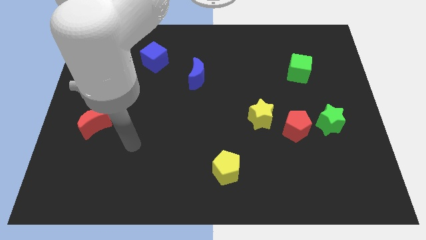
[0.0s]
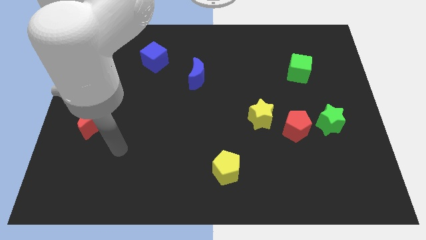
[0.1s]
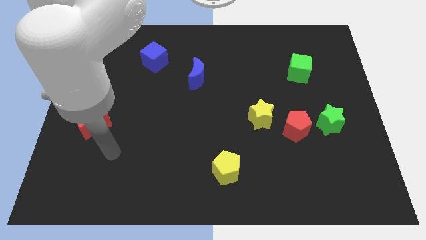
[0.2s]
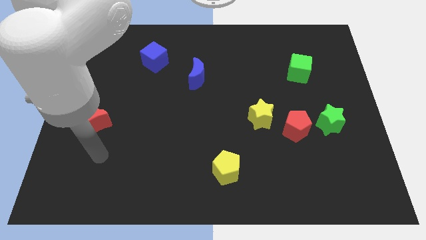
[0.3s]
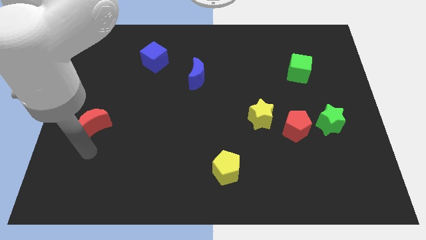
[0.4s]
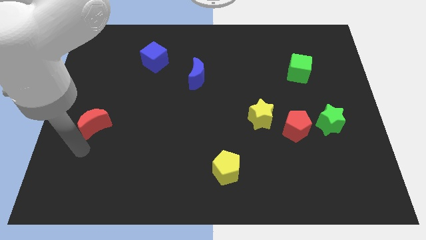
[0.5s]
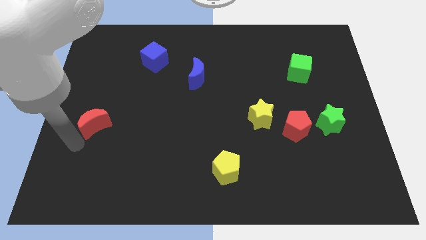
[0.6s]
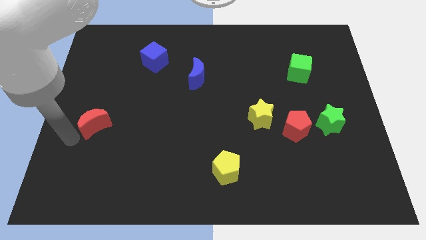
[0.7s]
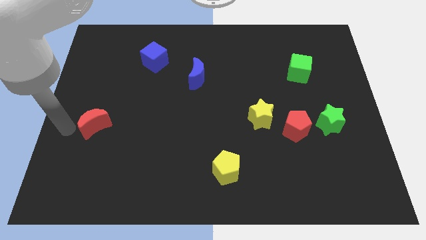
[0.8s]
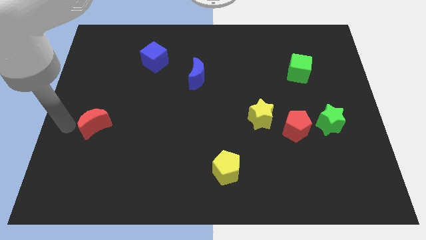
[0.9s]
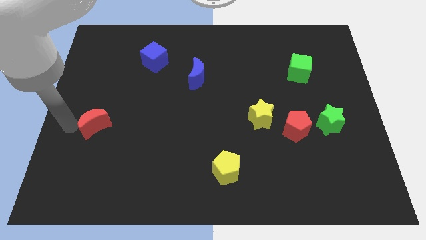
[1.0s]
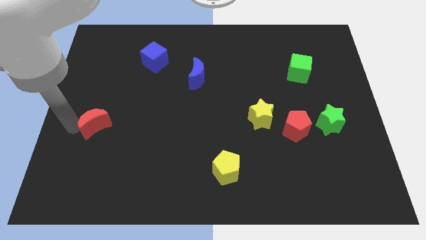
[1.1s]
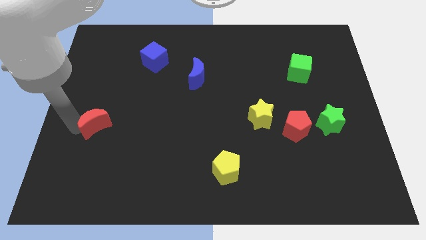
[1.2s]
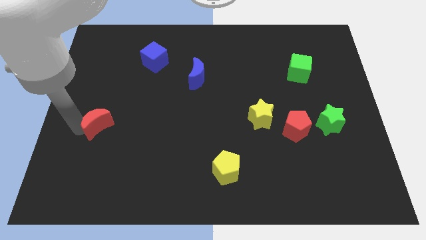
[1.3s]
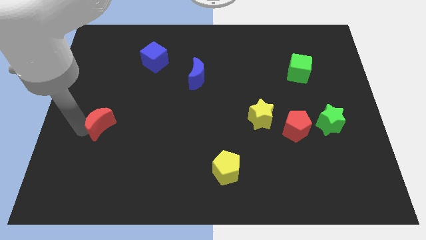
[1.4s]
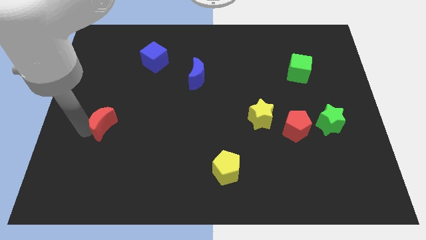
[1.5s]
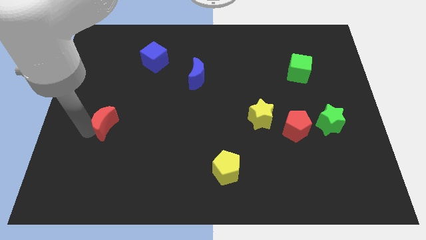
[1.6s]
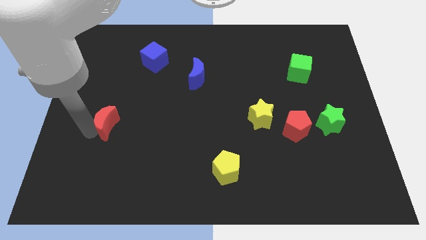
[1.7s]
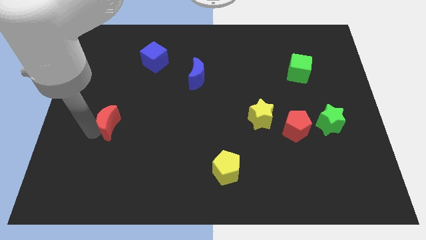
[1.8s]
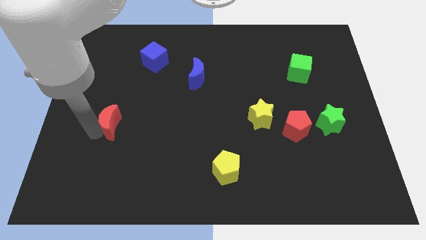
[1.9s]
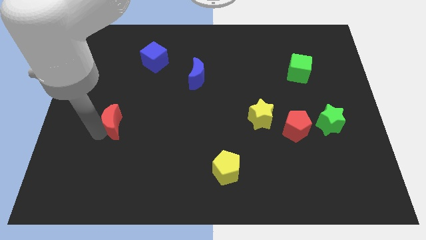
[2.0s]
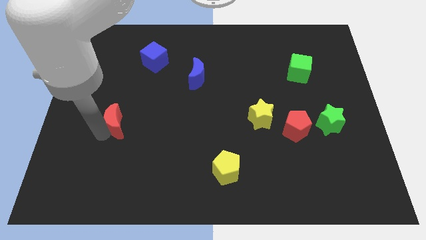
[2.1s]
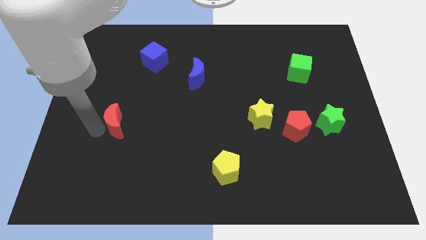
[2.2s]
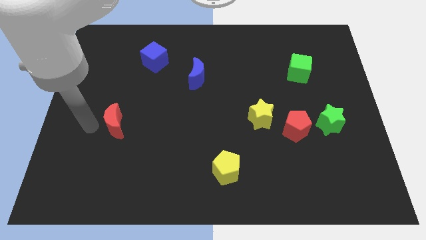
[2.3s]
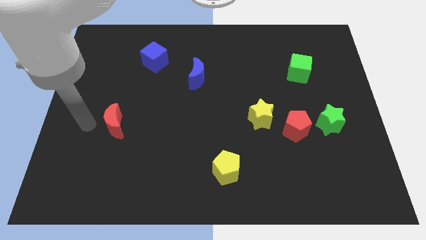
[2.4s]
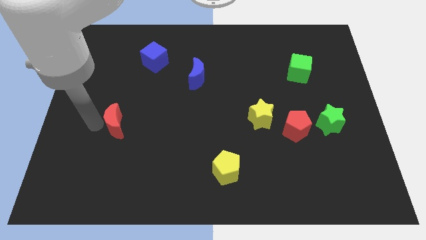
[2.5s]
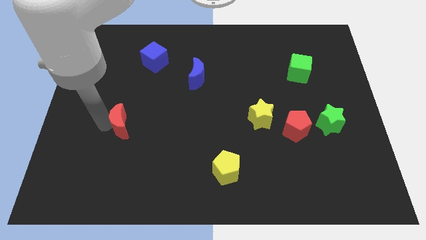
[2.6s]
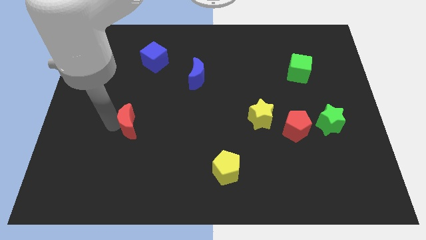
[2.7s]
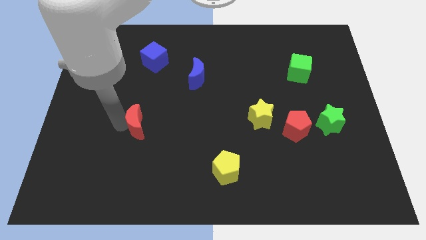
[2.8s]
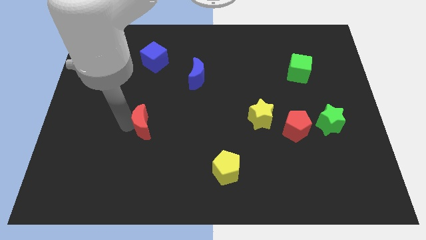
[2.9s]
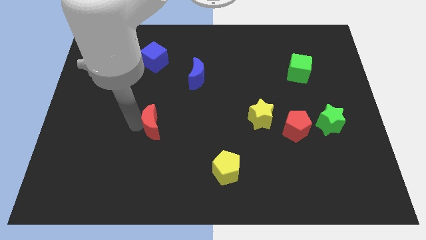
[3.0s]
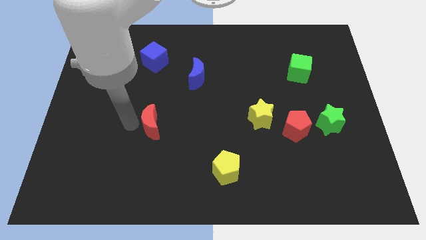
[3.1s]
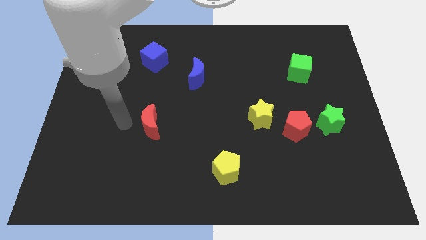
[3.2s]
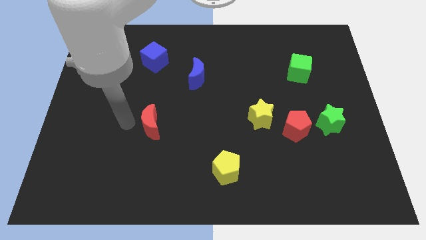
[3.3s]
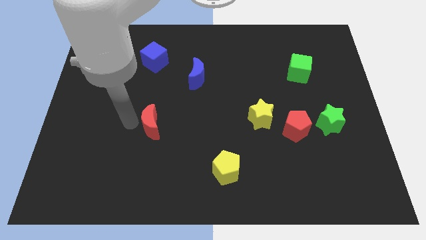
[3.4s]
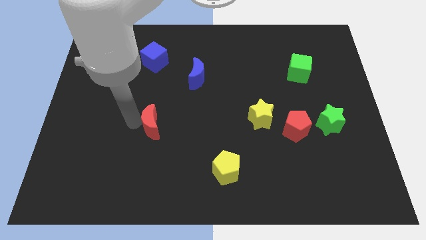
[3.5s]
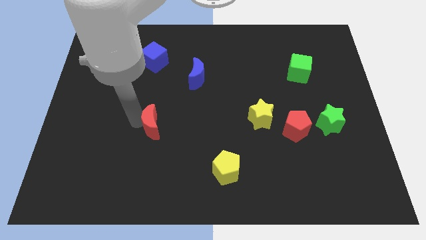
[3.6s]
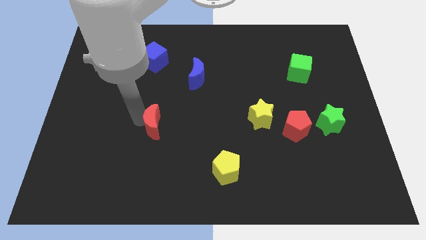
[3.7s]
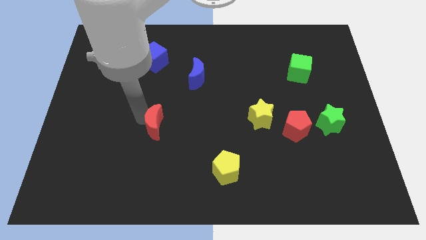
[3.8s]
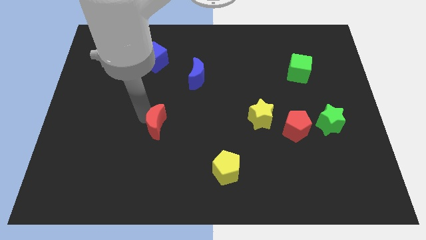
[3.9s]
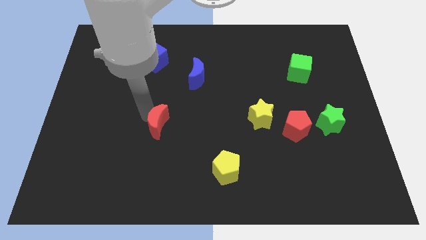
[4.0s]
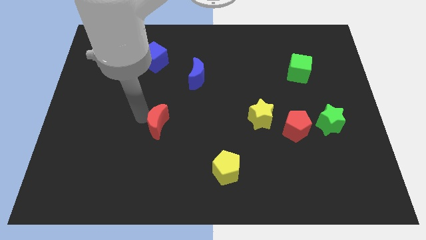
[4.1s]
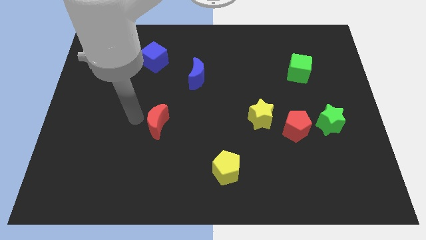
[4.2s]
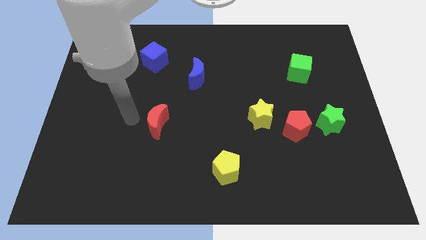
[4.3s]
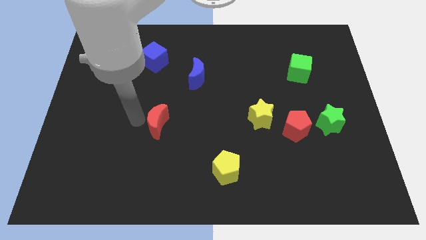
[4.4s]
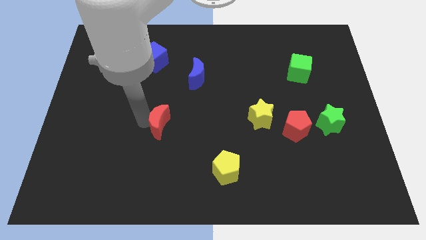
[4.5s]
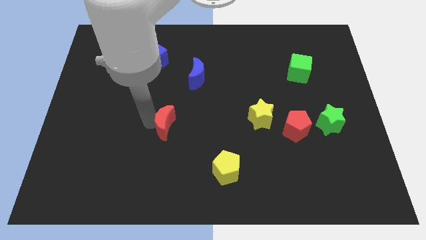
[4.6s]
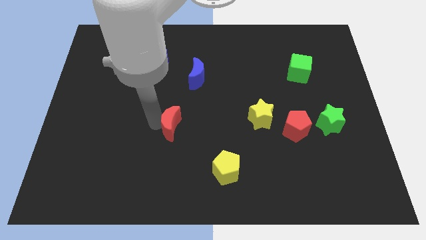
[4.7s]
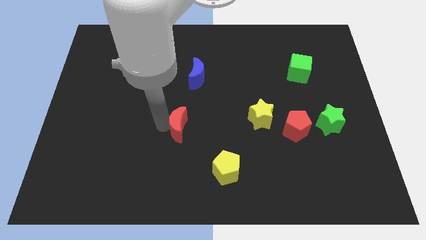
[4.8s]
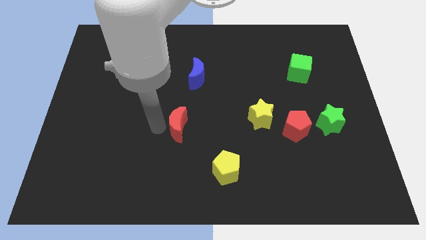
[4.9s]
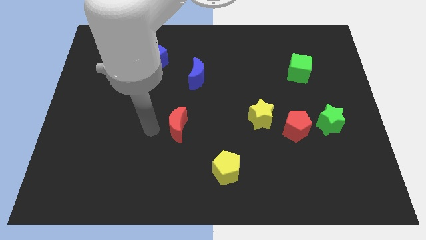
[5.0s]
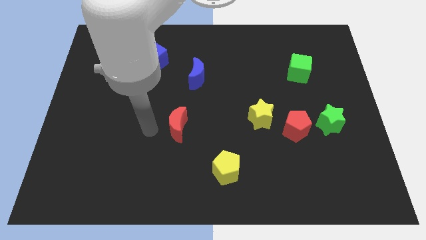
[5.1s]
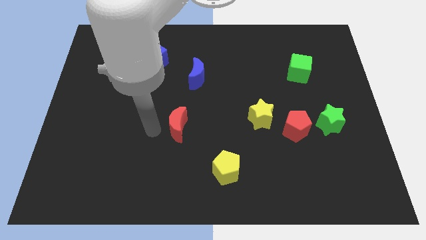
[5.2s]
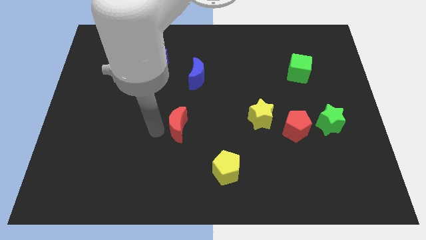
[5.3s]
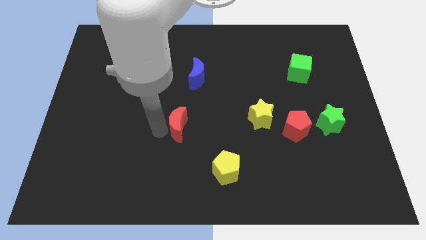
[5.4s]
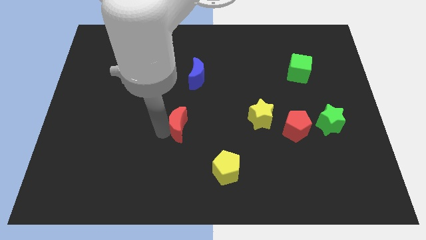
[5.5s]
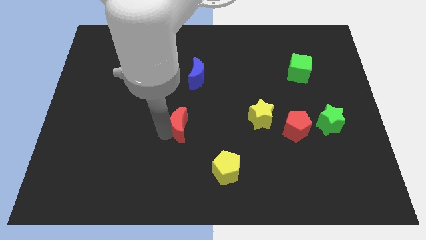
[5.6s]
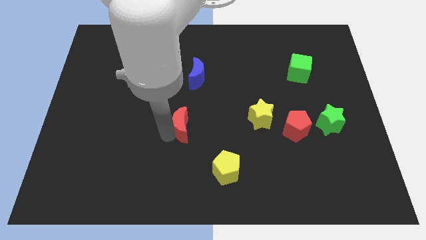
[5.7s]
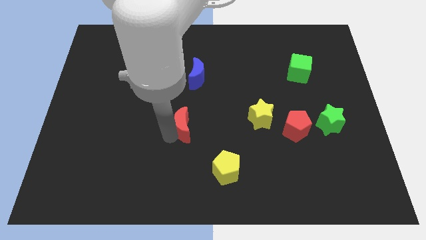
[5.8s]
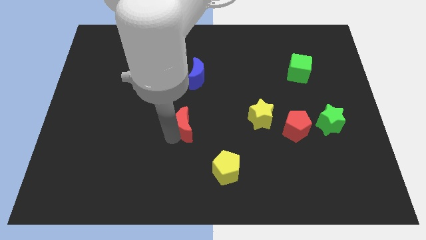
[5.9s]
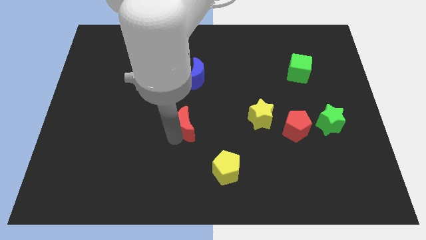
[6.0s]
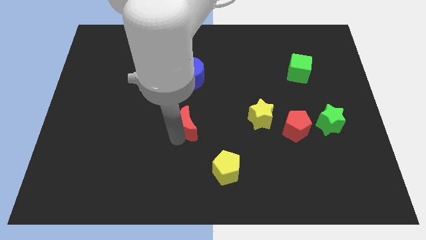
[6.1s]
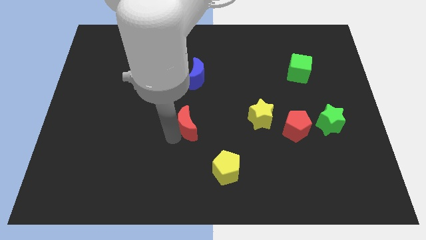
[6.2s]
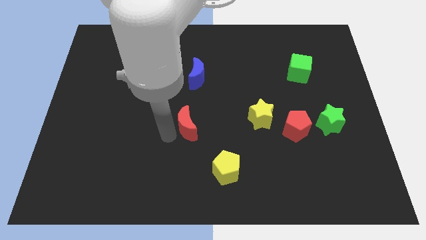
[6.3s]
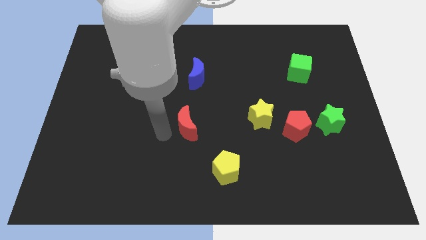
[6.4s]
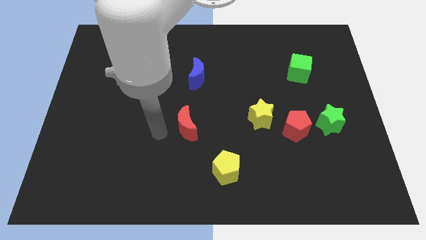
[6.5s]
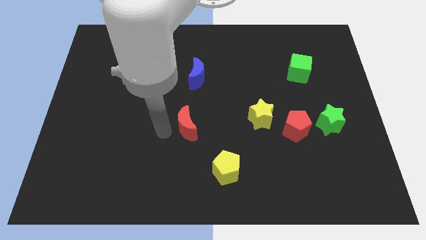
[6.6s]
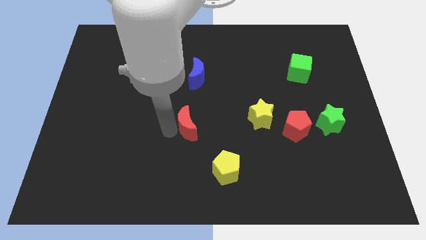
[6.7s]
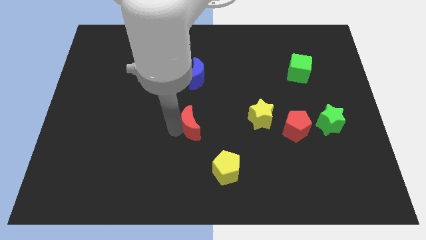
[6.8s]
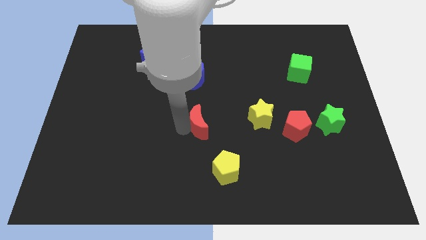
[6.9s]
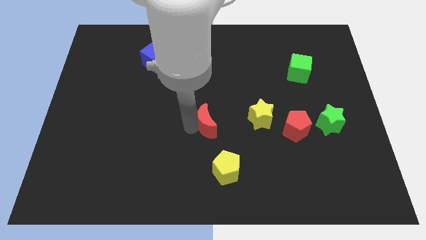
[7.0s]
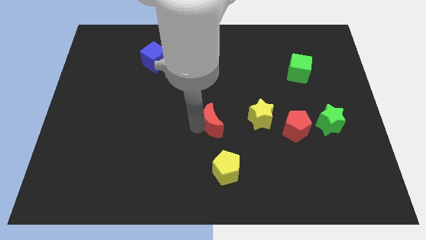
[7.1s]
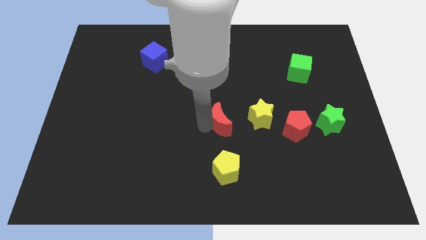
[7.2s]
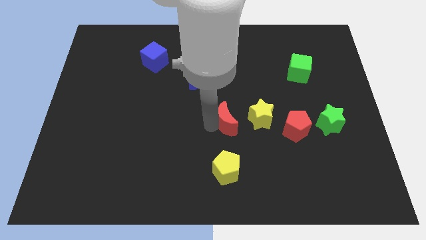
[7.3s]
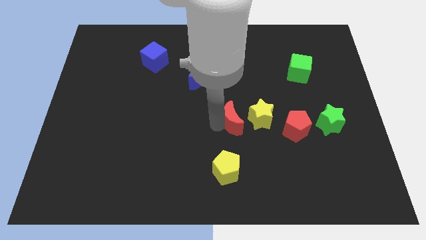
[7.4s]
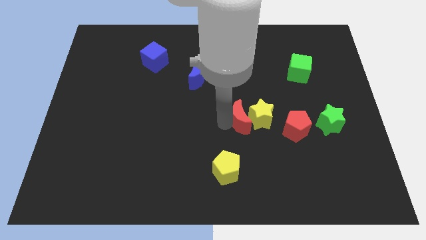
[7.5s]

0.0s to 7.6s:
push the red moon to the yellow star
